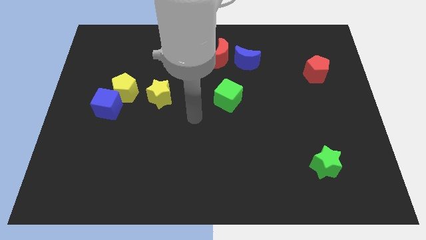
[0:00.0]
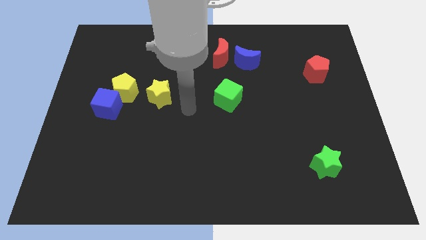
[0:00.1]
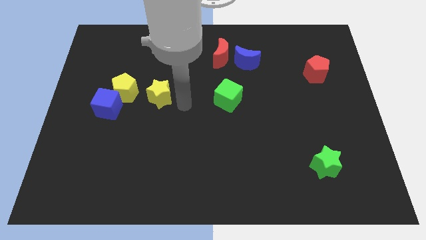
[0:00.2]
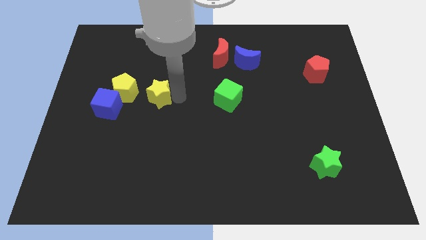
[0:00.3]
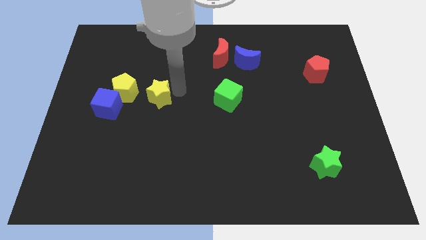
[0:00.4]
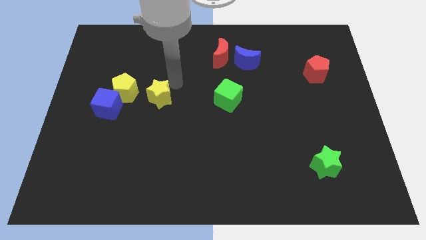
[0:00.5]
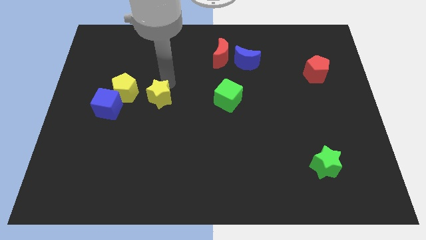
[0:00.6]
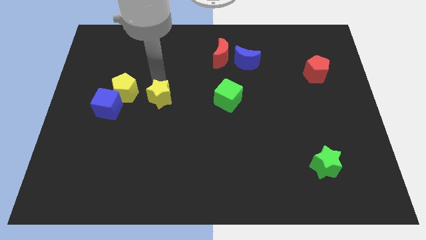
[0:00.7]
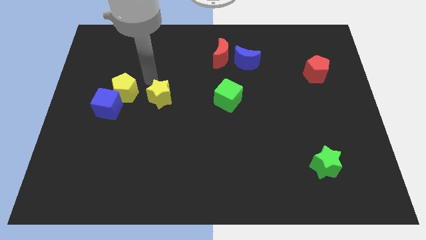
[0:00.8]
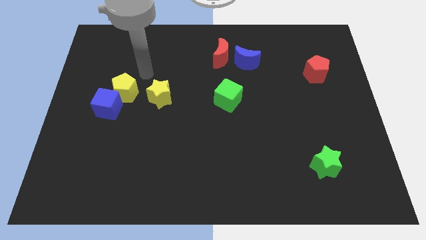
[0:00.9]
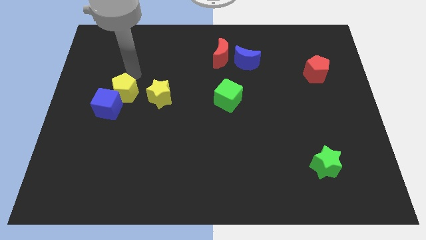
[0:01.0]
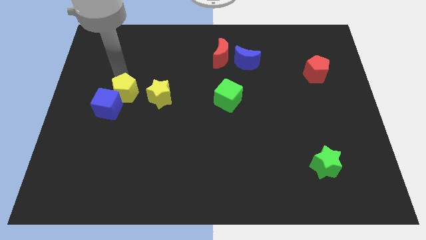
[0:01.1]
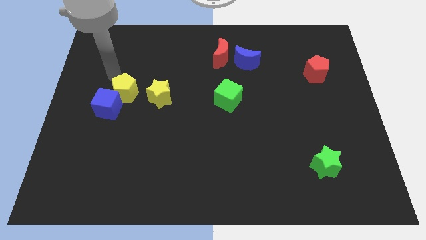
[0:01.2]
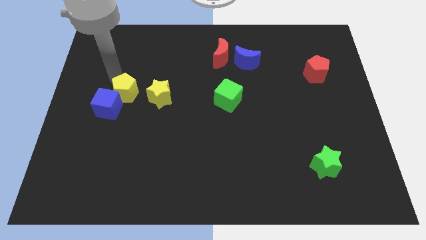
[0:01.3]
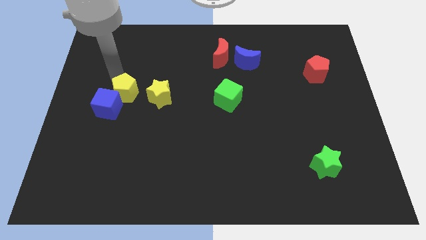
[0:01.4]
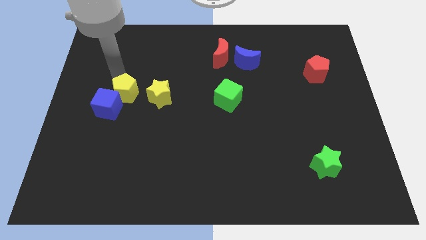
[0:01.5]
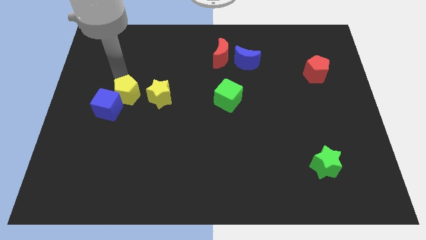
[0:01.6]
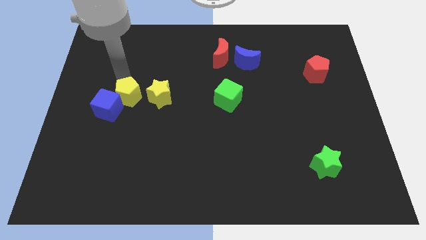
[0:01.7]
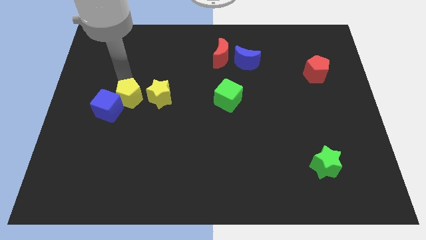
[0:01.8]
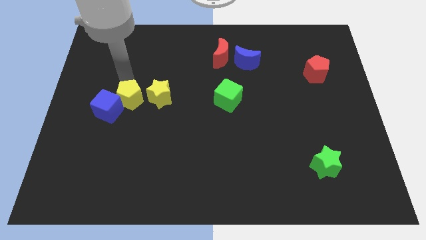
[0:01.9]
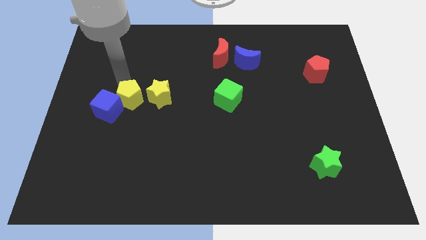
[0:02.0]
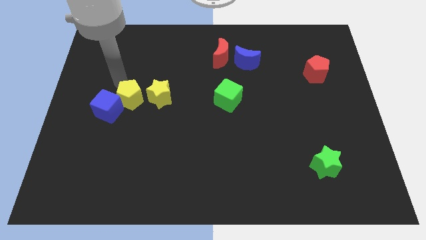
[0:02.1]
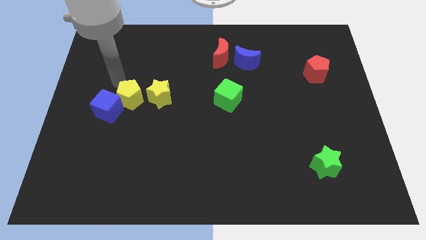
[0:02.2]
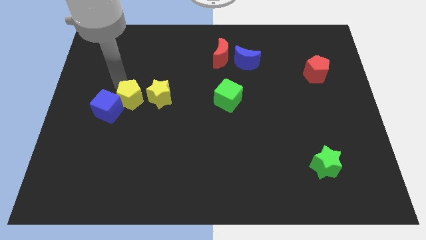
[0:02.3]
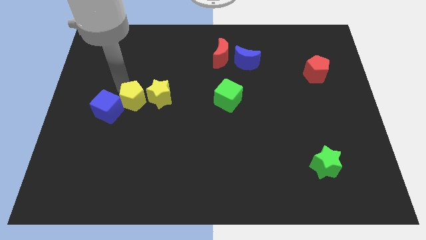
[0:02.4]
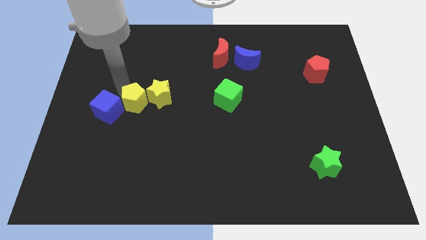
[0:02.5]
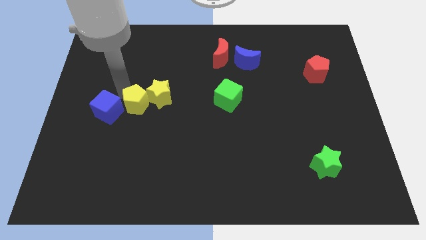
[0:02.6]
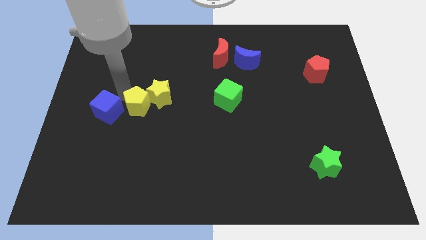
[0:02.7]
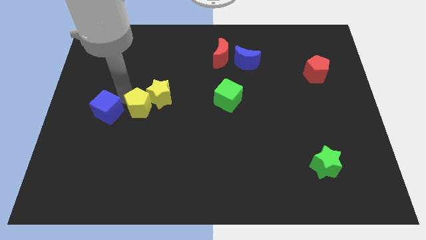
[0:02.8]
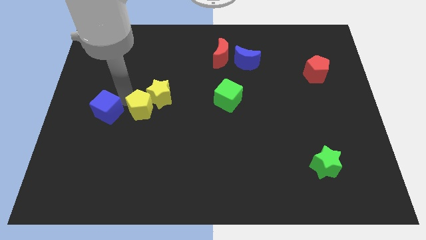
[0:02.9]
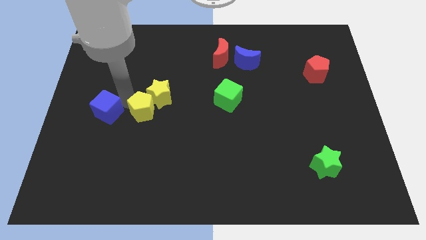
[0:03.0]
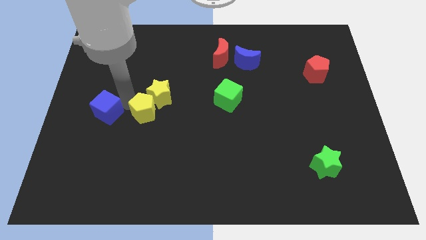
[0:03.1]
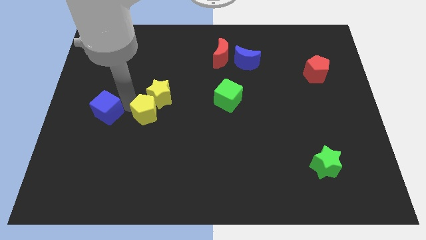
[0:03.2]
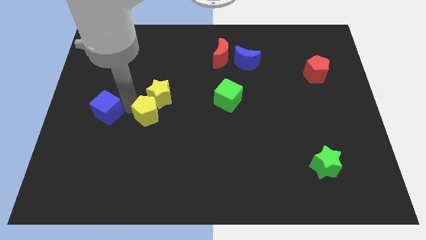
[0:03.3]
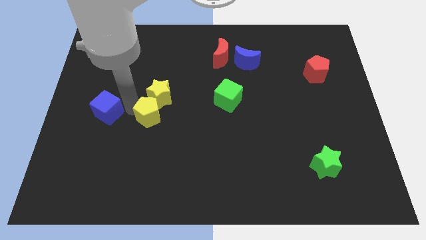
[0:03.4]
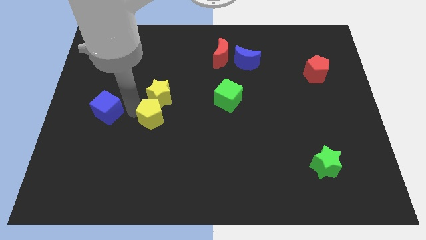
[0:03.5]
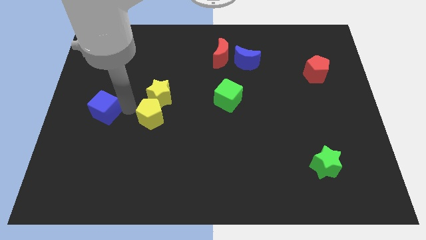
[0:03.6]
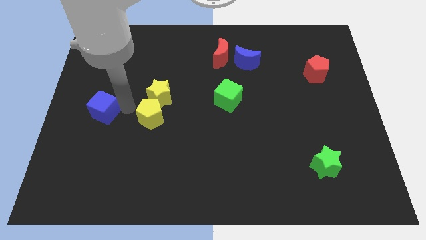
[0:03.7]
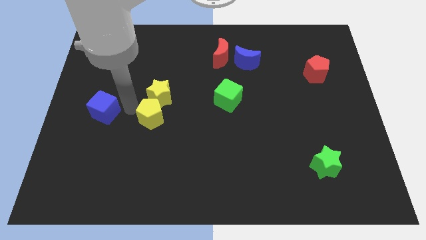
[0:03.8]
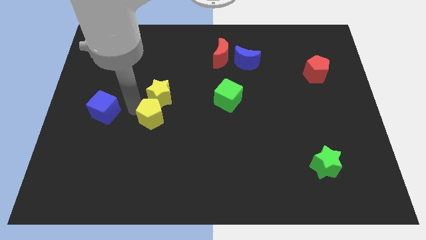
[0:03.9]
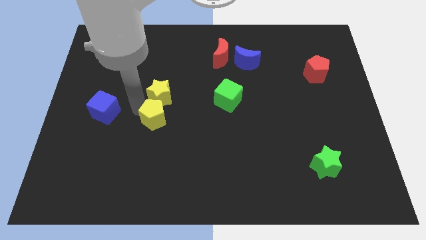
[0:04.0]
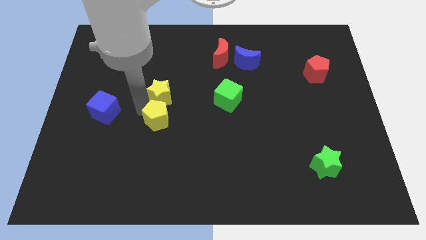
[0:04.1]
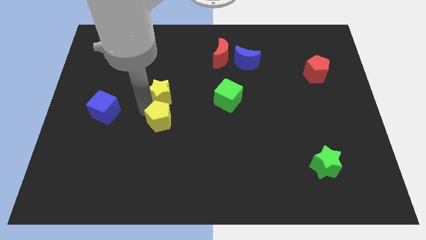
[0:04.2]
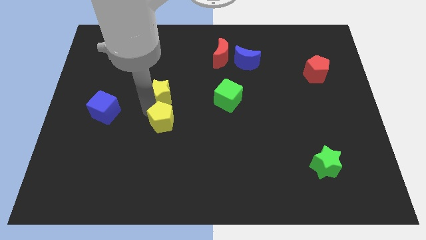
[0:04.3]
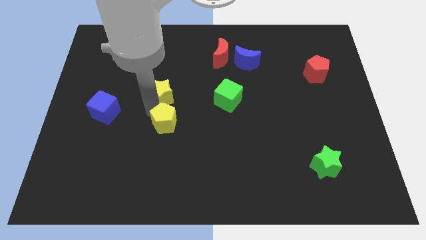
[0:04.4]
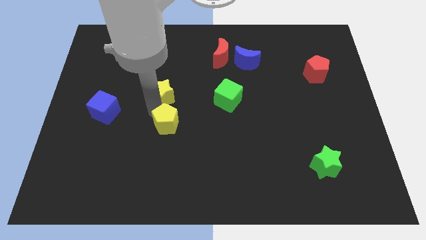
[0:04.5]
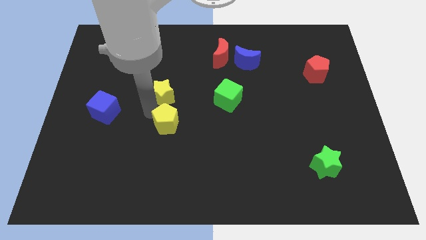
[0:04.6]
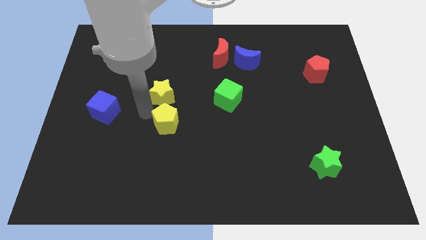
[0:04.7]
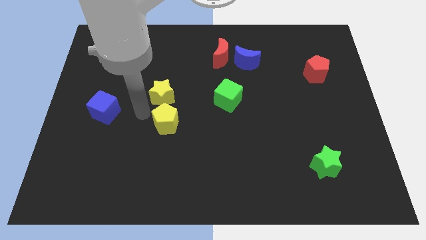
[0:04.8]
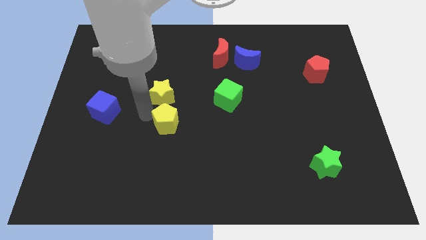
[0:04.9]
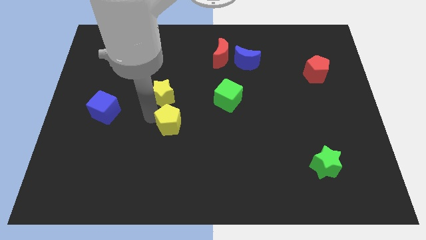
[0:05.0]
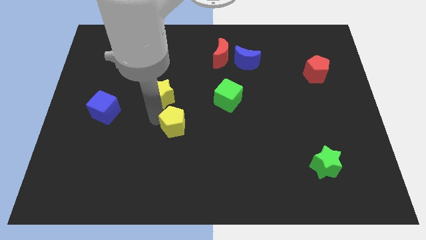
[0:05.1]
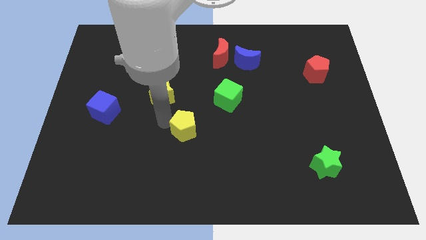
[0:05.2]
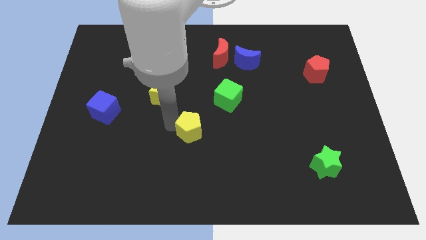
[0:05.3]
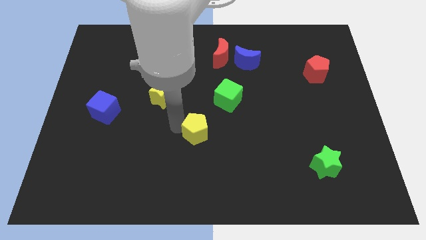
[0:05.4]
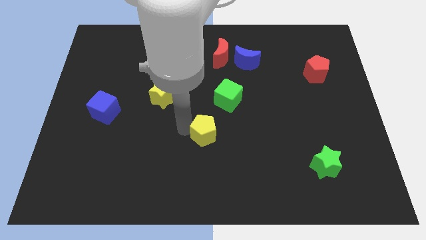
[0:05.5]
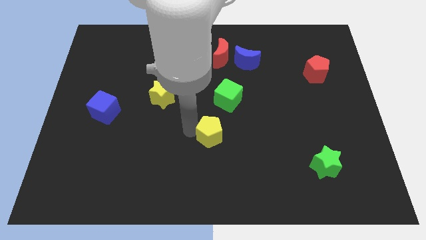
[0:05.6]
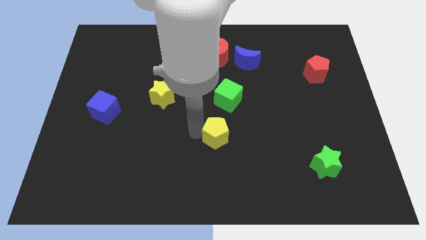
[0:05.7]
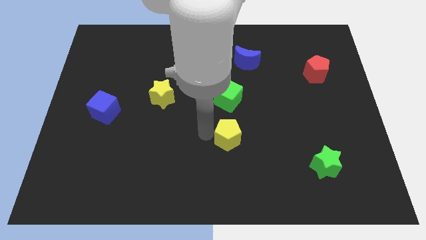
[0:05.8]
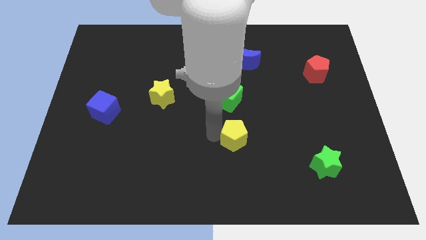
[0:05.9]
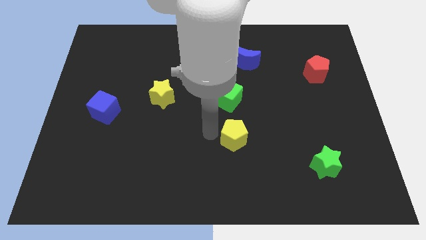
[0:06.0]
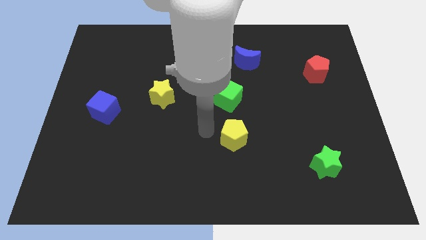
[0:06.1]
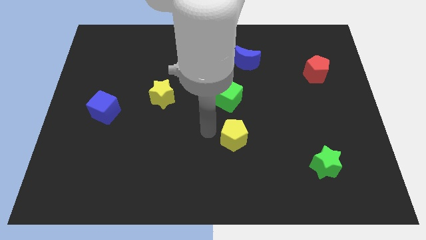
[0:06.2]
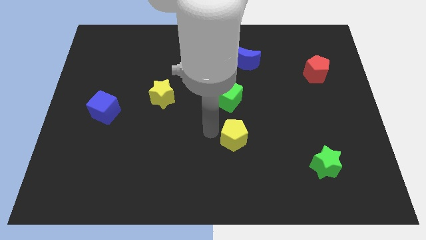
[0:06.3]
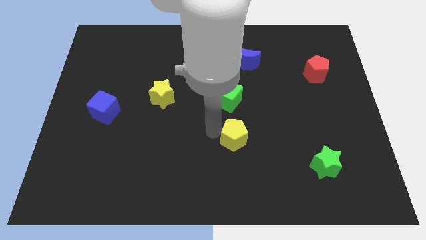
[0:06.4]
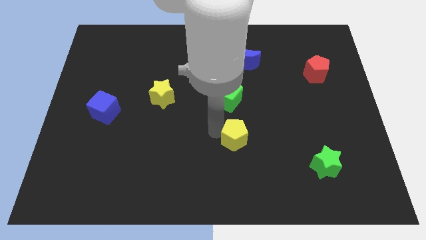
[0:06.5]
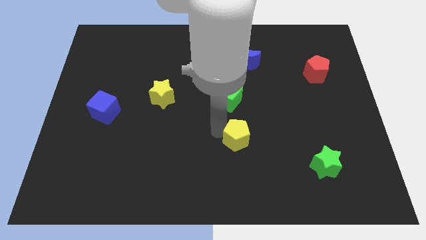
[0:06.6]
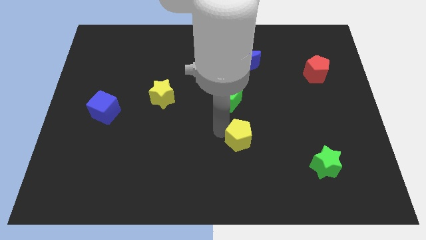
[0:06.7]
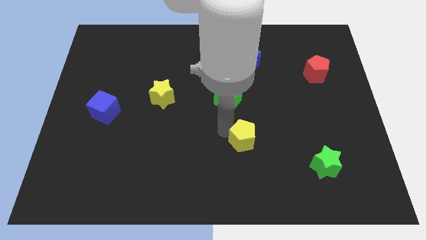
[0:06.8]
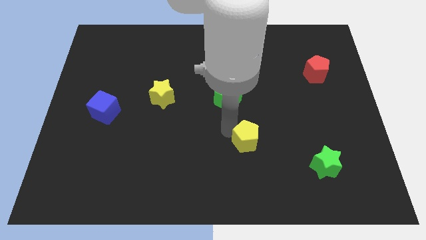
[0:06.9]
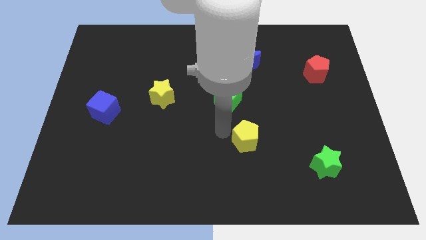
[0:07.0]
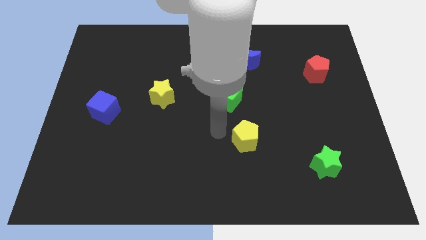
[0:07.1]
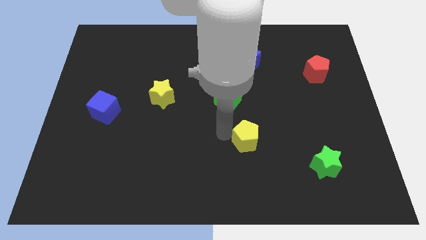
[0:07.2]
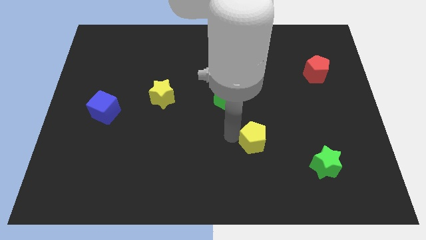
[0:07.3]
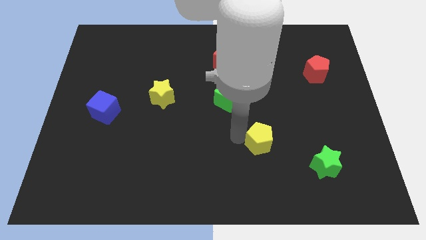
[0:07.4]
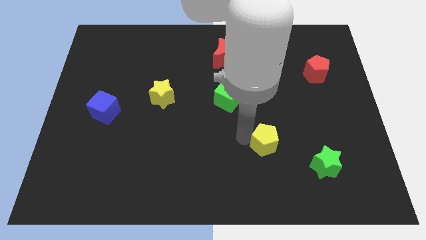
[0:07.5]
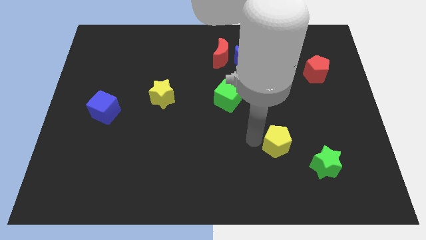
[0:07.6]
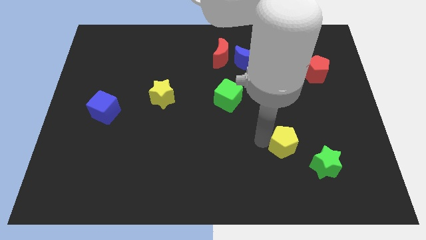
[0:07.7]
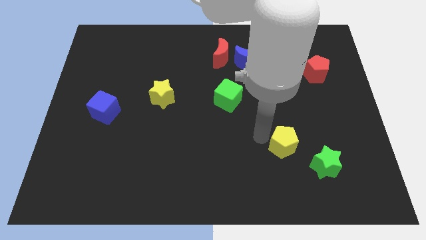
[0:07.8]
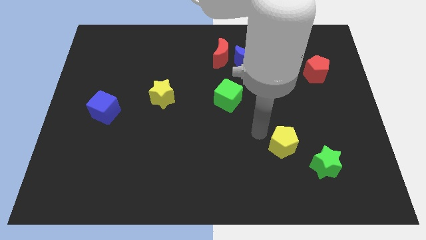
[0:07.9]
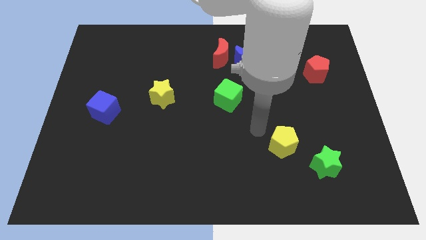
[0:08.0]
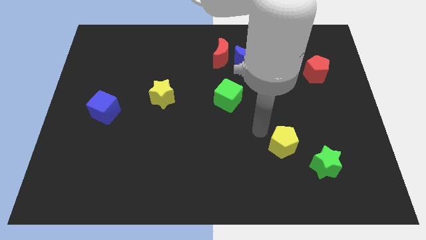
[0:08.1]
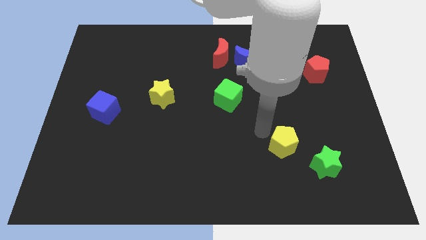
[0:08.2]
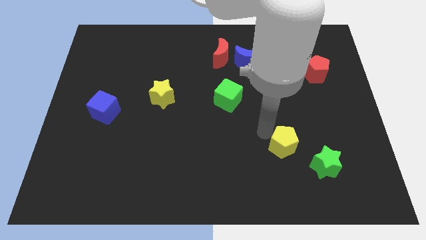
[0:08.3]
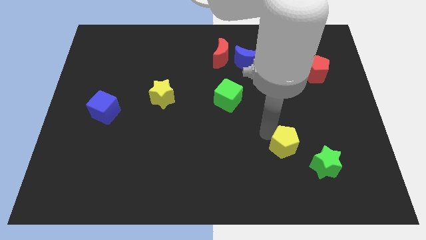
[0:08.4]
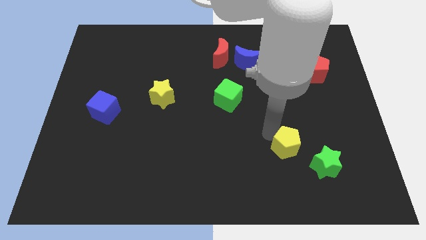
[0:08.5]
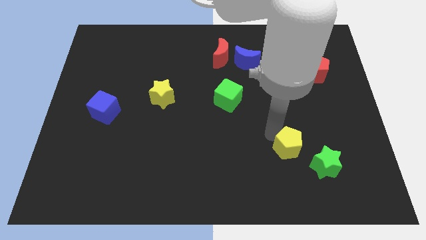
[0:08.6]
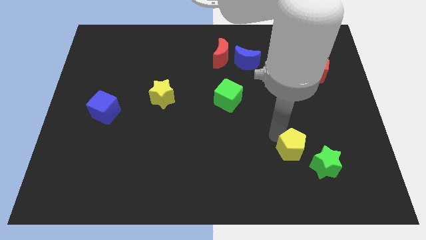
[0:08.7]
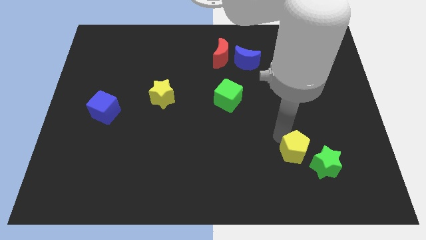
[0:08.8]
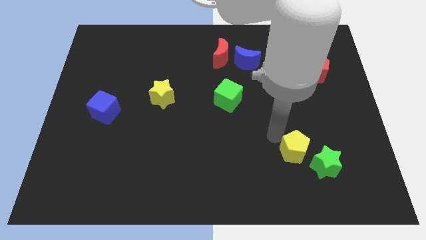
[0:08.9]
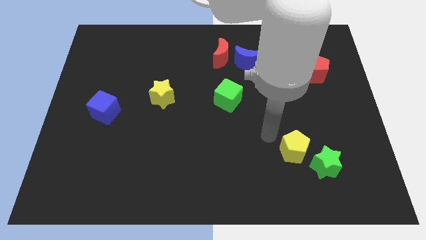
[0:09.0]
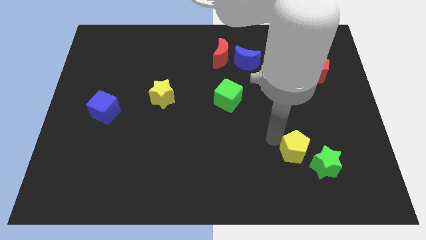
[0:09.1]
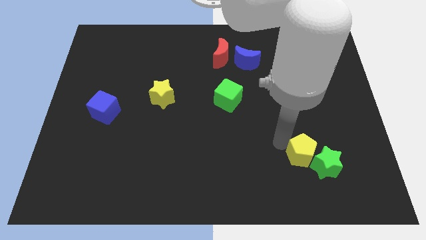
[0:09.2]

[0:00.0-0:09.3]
put the yellow pentagon next to the green star
